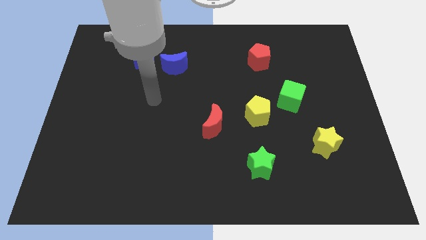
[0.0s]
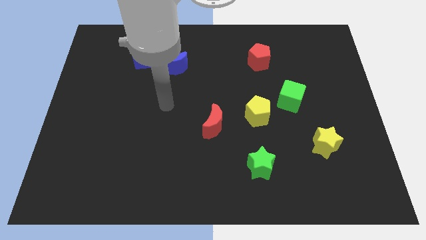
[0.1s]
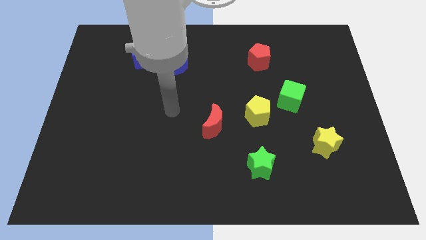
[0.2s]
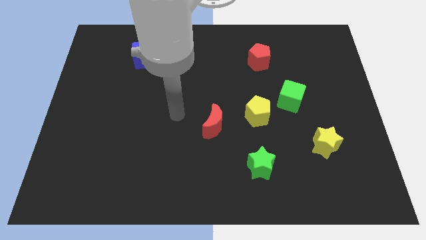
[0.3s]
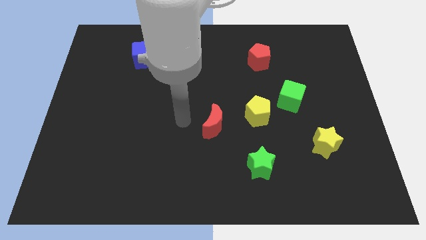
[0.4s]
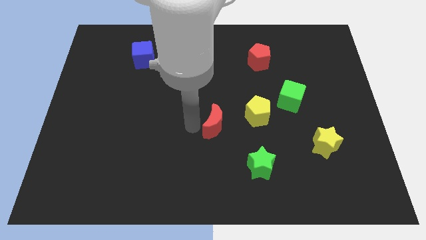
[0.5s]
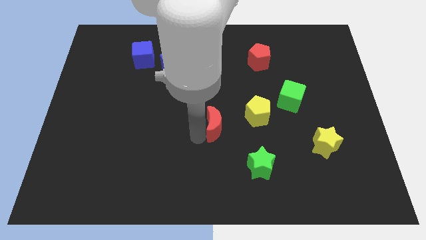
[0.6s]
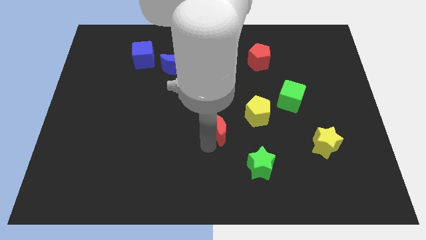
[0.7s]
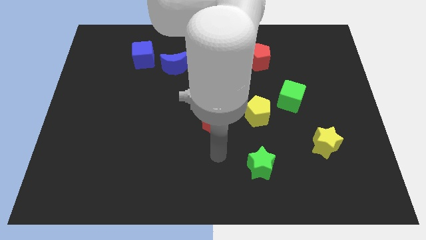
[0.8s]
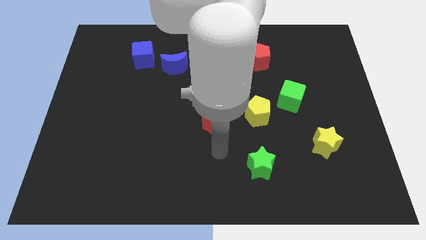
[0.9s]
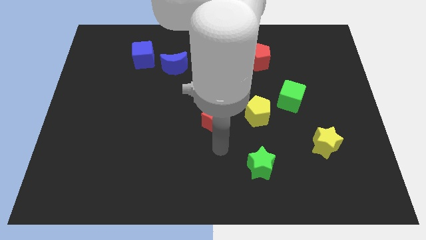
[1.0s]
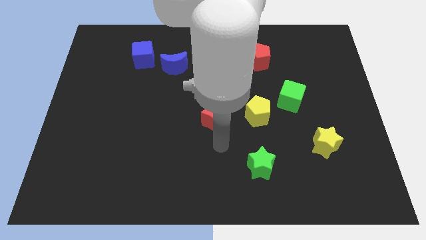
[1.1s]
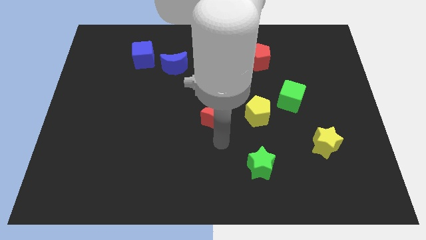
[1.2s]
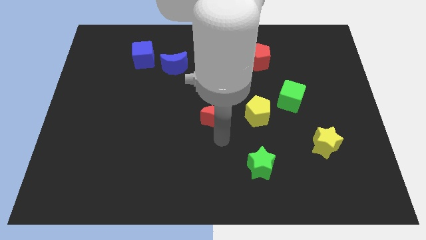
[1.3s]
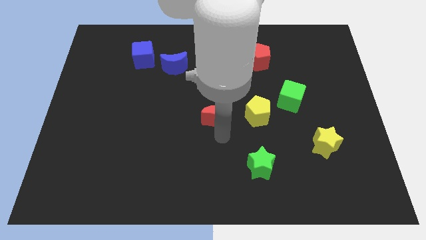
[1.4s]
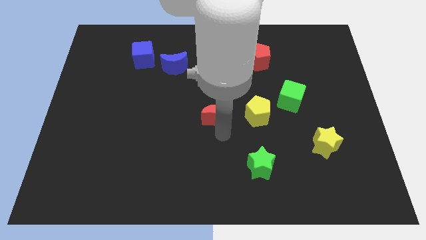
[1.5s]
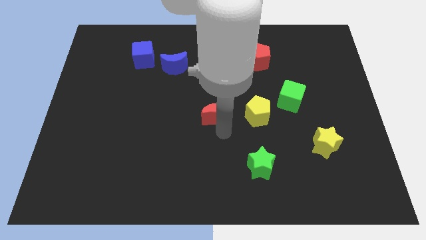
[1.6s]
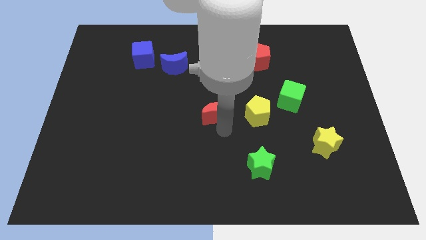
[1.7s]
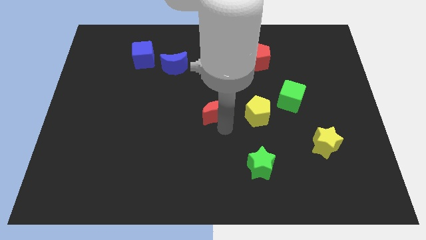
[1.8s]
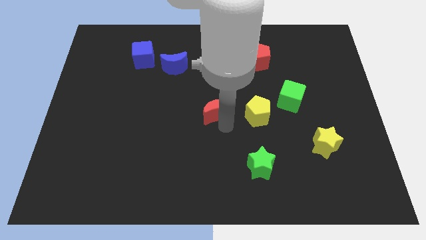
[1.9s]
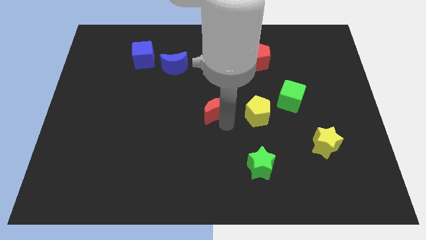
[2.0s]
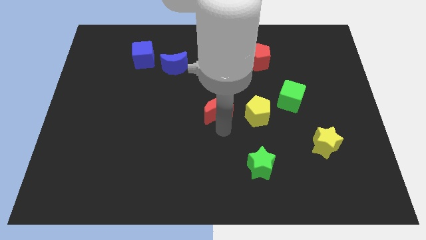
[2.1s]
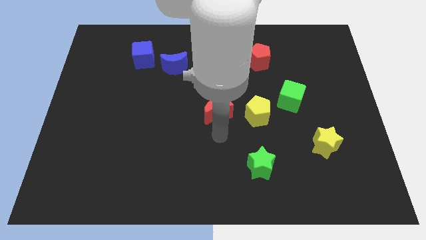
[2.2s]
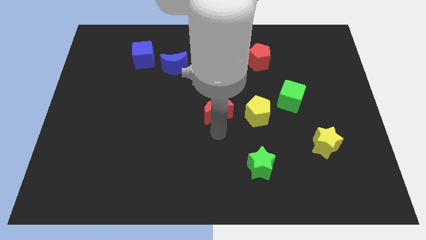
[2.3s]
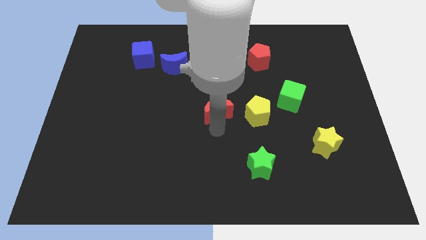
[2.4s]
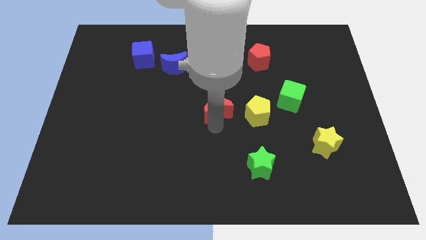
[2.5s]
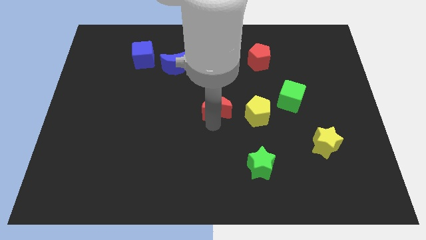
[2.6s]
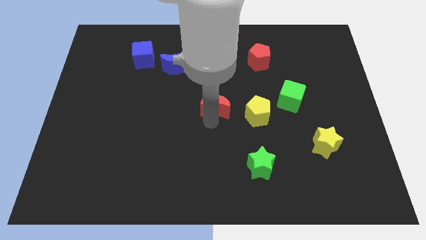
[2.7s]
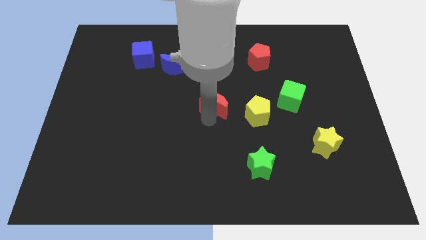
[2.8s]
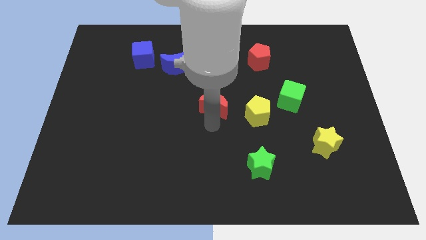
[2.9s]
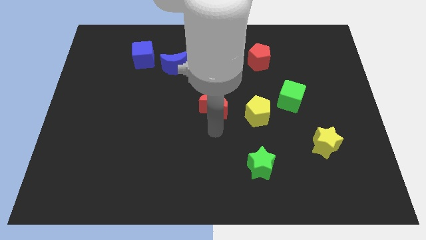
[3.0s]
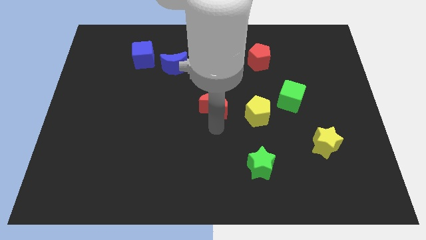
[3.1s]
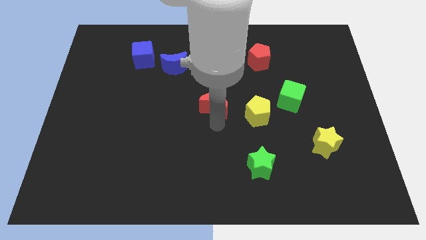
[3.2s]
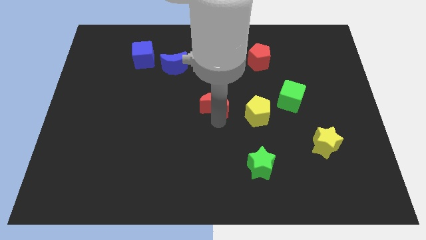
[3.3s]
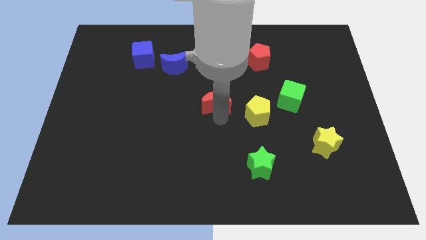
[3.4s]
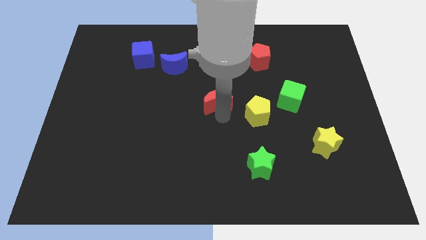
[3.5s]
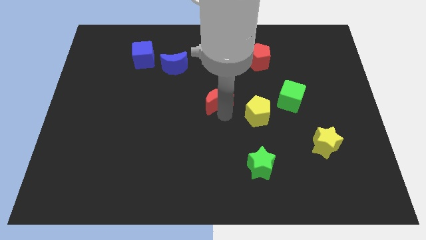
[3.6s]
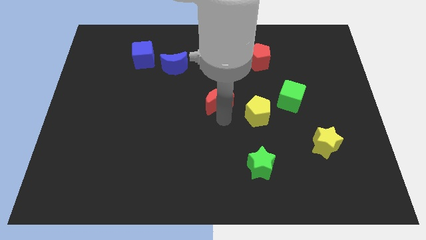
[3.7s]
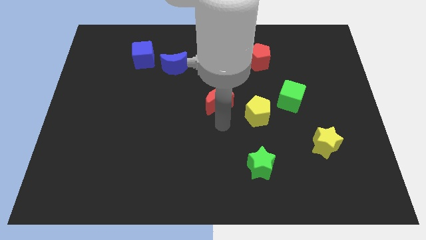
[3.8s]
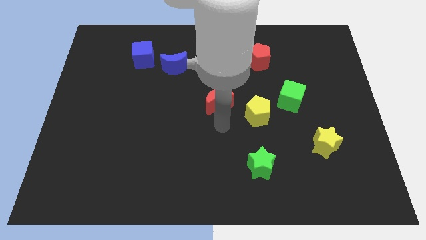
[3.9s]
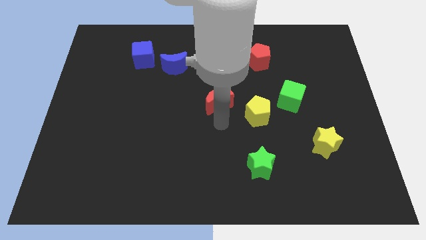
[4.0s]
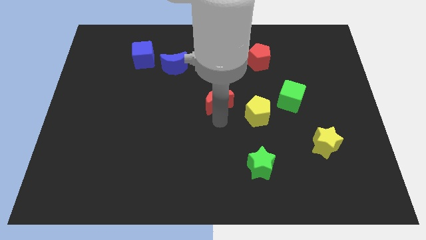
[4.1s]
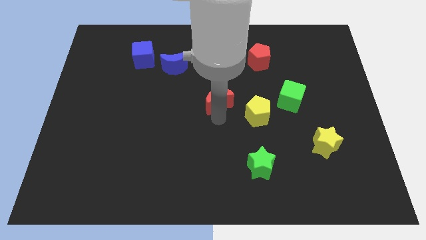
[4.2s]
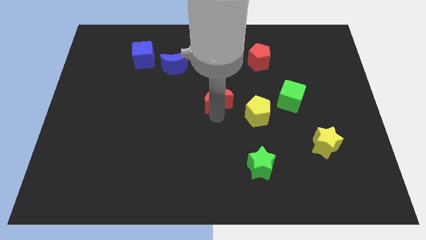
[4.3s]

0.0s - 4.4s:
slide the red moon somewhat up

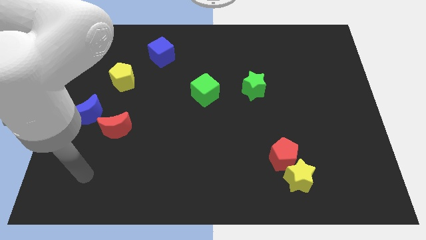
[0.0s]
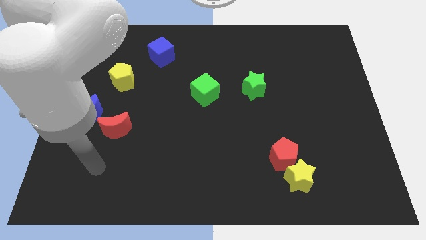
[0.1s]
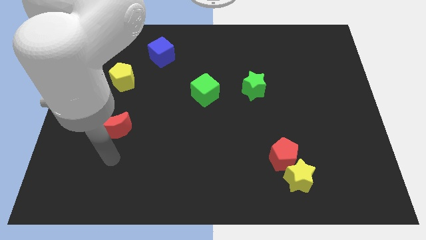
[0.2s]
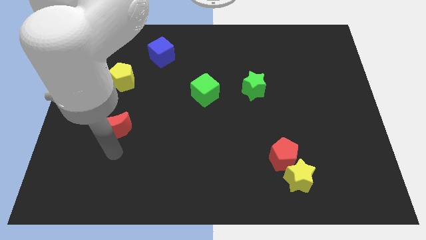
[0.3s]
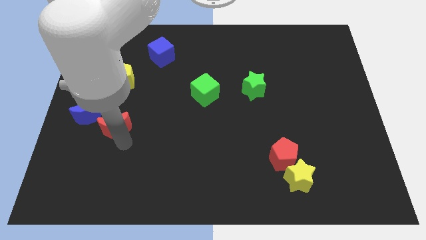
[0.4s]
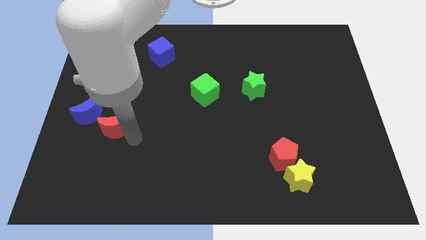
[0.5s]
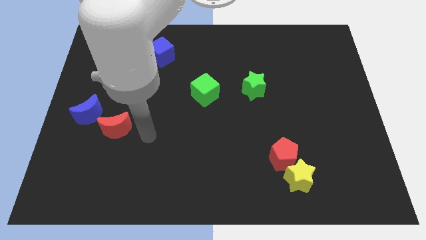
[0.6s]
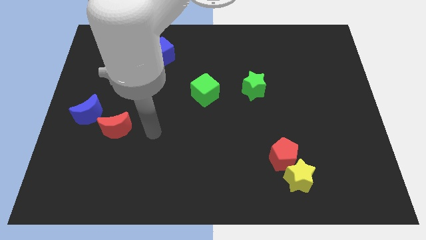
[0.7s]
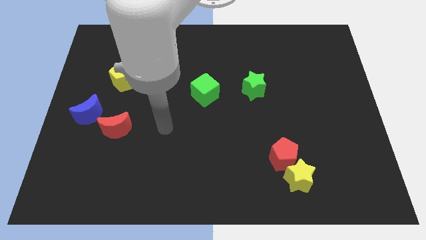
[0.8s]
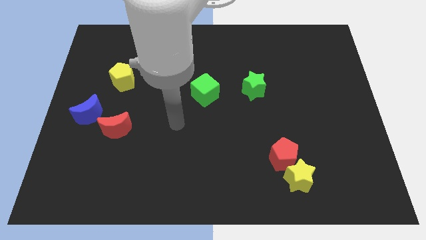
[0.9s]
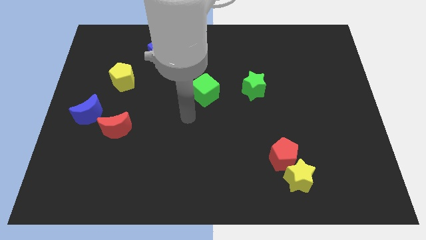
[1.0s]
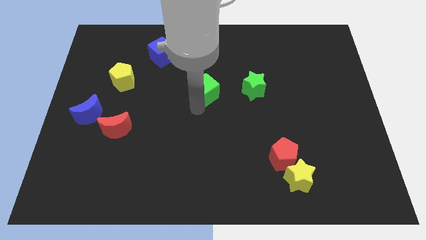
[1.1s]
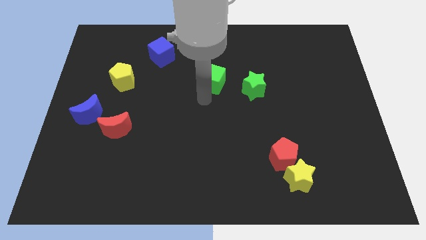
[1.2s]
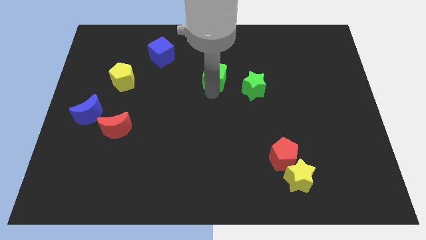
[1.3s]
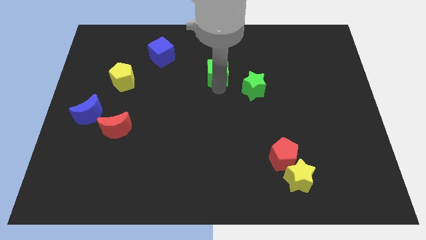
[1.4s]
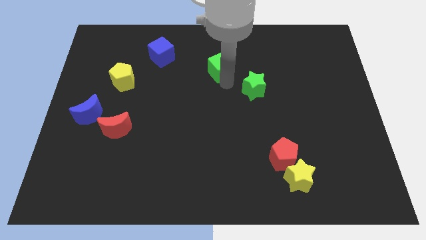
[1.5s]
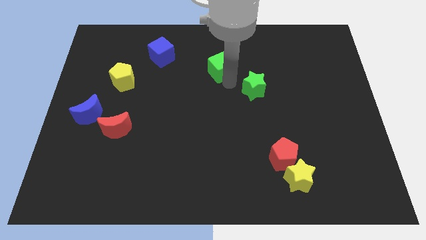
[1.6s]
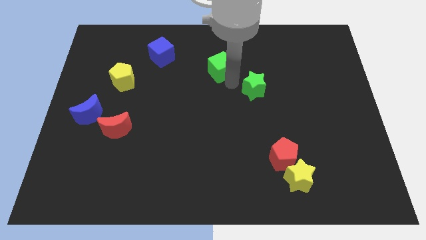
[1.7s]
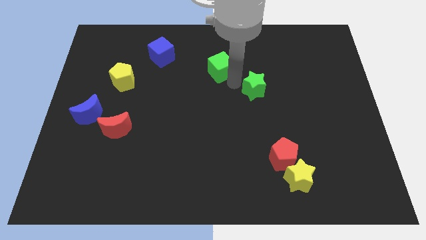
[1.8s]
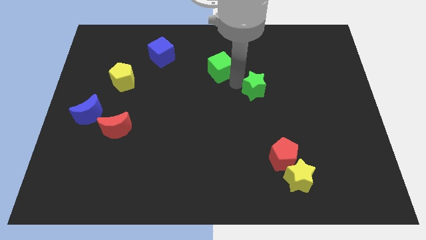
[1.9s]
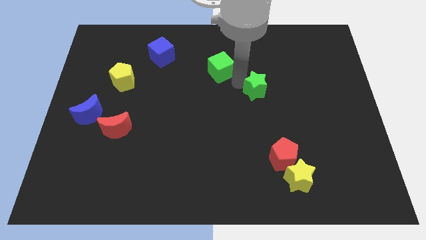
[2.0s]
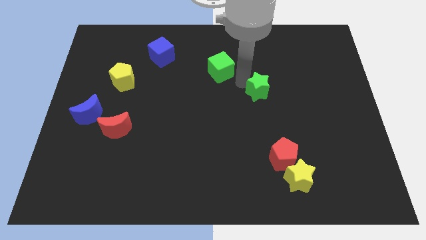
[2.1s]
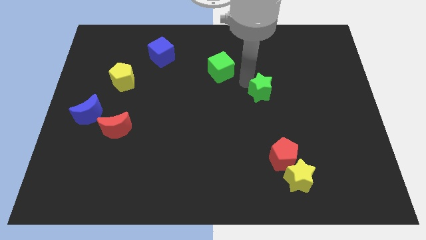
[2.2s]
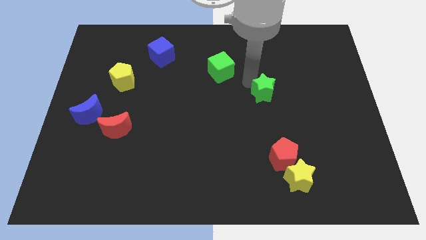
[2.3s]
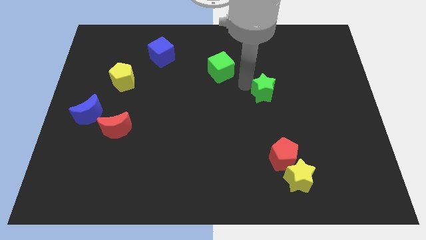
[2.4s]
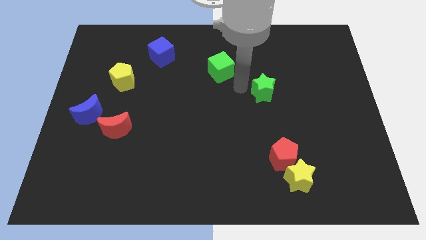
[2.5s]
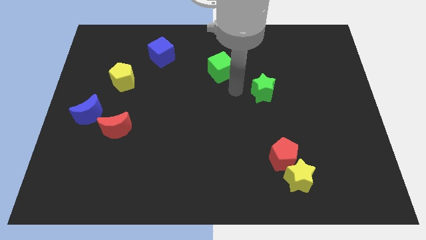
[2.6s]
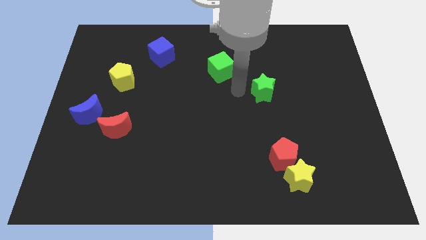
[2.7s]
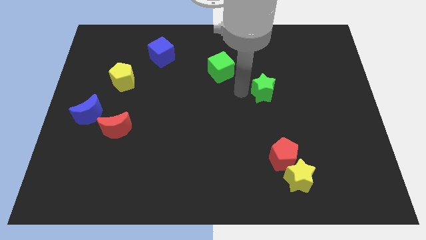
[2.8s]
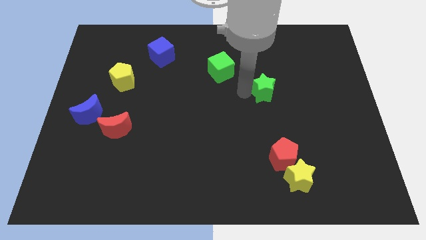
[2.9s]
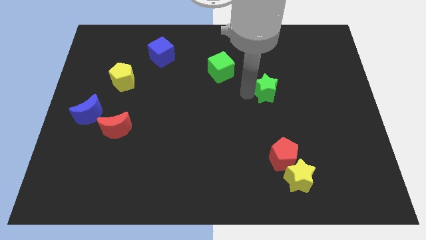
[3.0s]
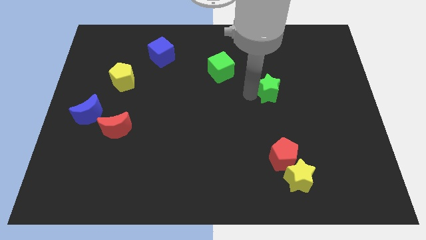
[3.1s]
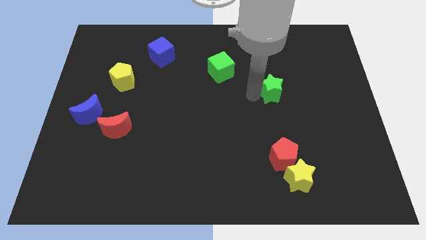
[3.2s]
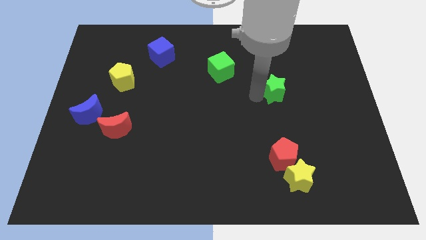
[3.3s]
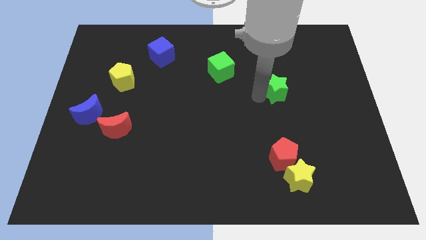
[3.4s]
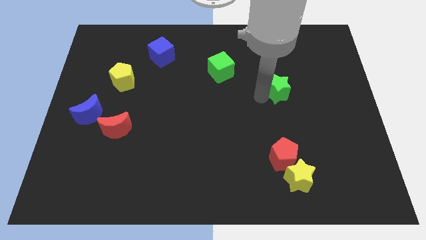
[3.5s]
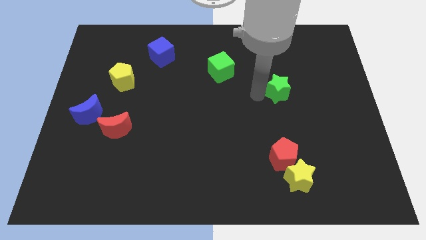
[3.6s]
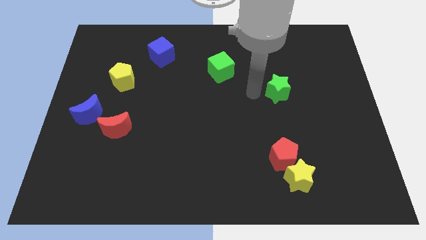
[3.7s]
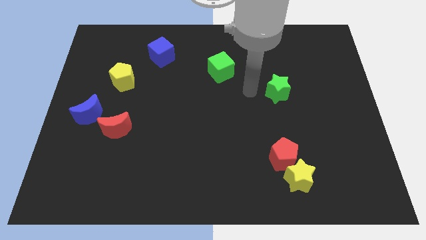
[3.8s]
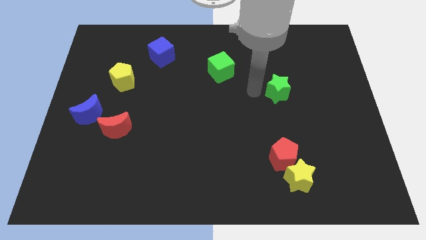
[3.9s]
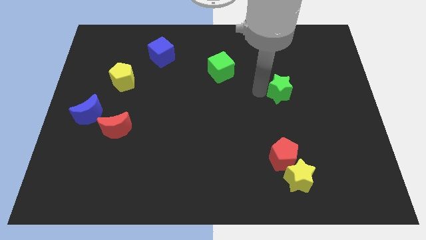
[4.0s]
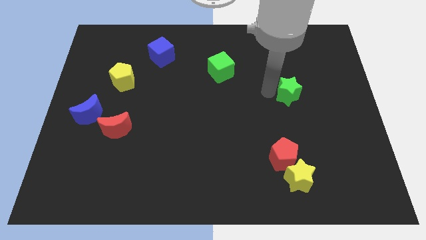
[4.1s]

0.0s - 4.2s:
slightly push the green star to the right
